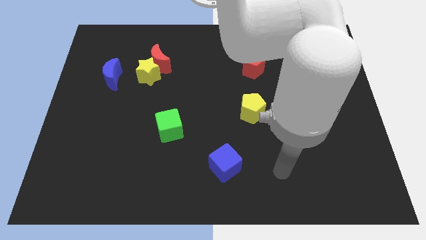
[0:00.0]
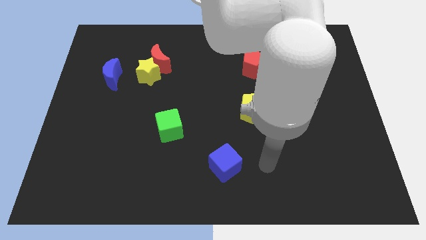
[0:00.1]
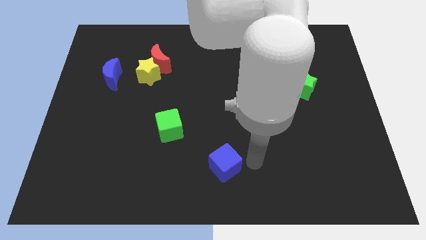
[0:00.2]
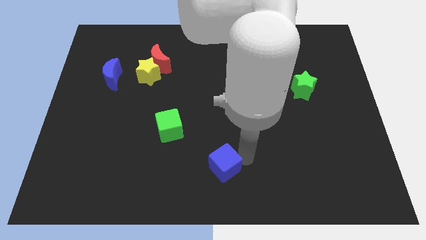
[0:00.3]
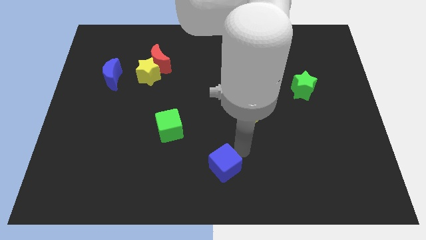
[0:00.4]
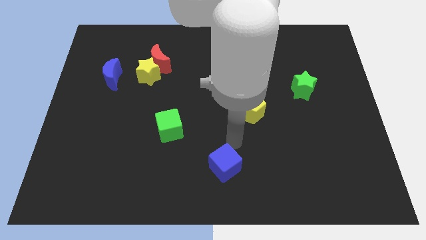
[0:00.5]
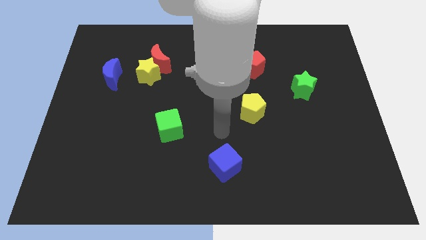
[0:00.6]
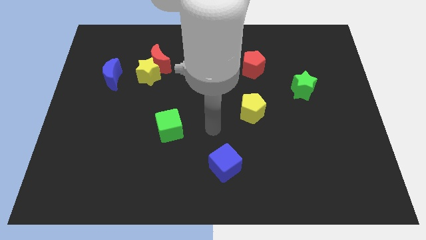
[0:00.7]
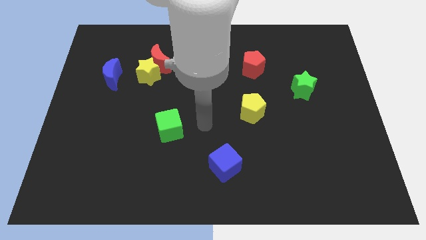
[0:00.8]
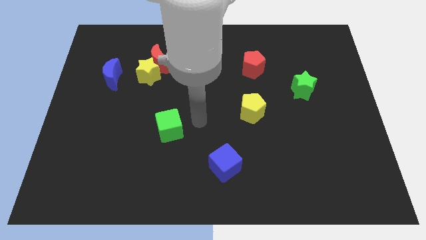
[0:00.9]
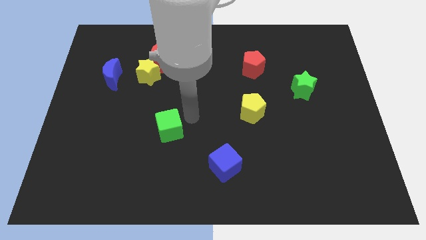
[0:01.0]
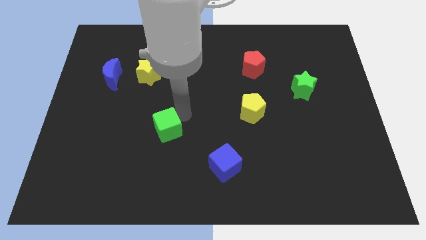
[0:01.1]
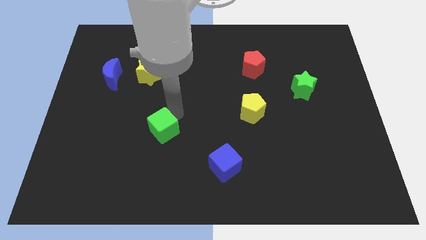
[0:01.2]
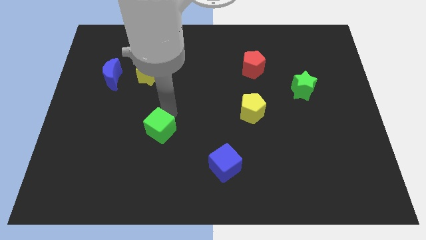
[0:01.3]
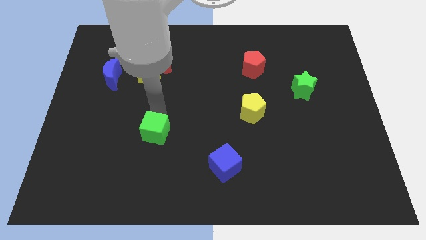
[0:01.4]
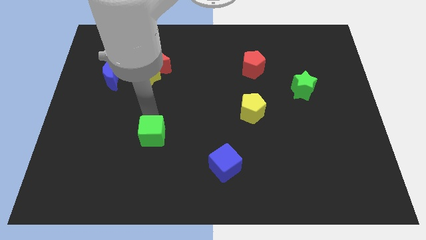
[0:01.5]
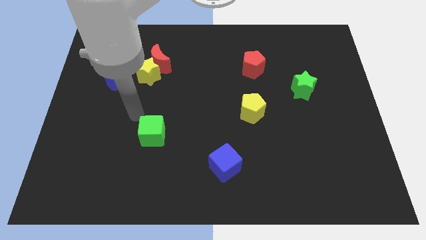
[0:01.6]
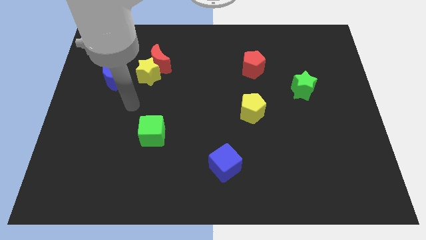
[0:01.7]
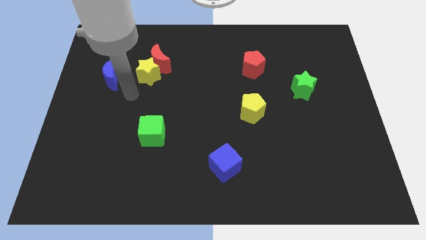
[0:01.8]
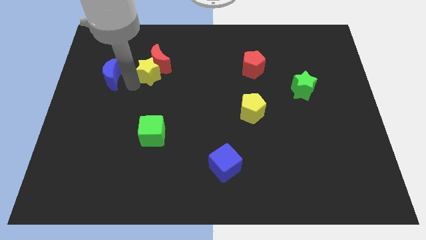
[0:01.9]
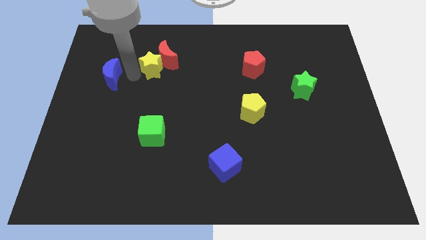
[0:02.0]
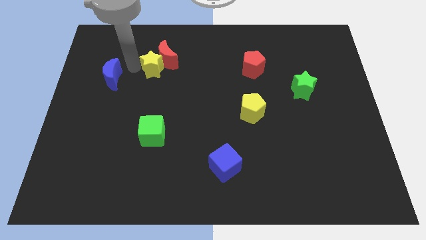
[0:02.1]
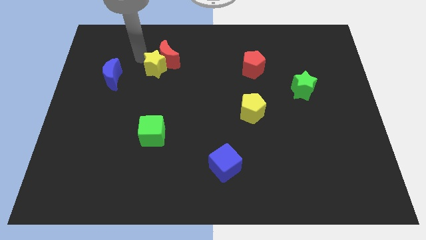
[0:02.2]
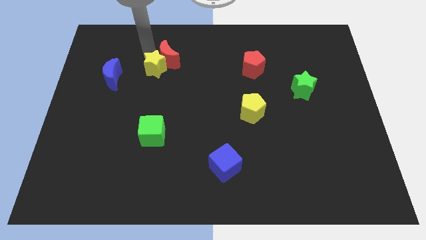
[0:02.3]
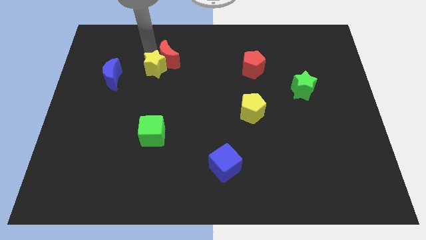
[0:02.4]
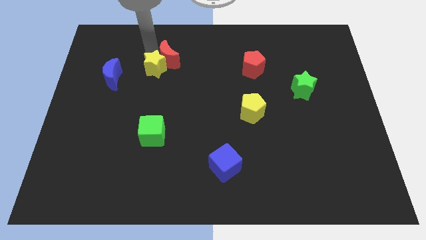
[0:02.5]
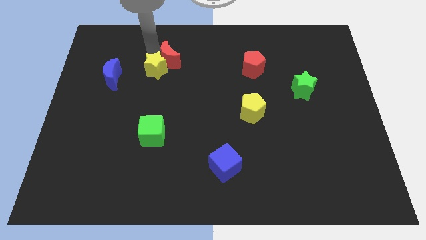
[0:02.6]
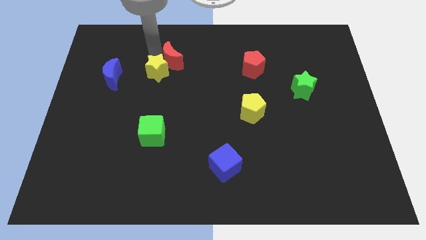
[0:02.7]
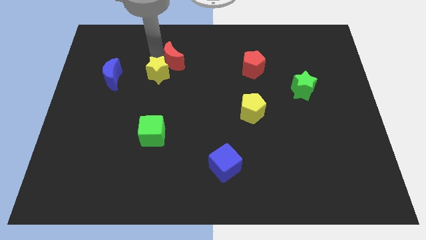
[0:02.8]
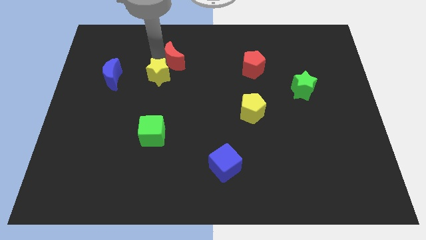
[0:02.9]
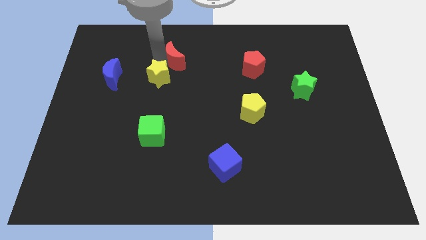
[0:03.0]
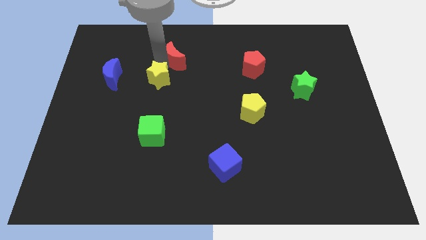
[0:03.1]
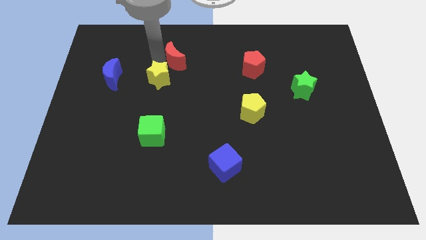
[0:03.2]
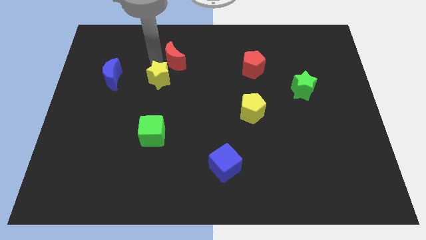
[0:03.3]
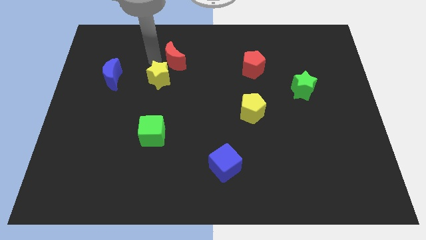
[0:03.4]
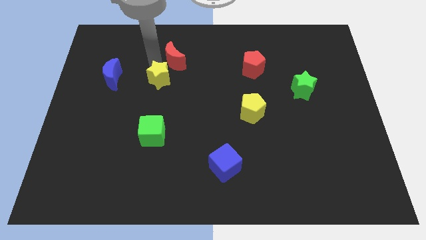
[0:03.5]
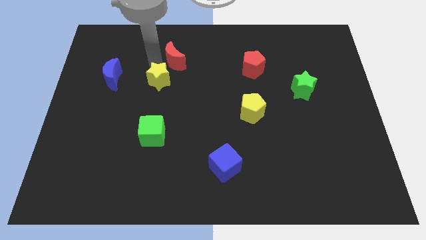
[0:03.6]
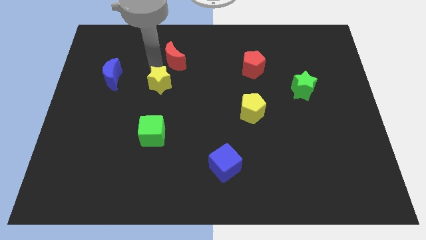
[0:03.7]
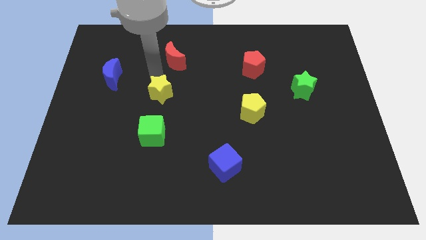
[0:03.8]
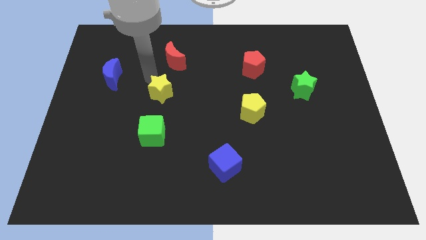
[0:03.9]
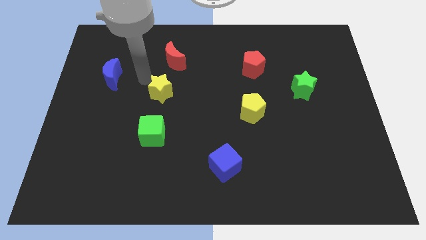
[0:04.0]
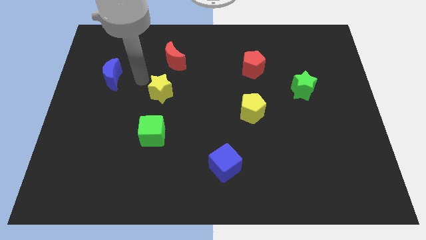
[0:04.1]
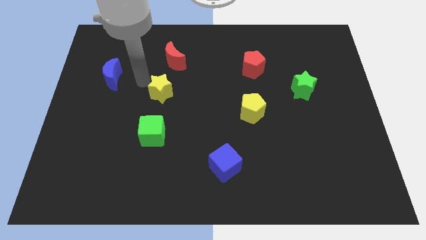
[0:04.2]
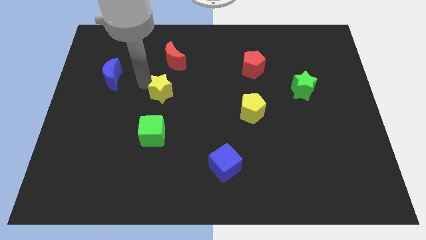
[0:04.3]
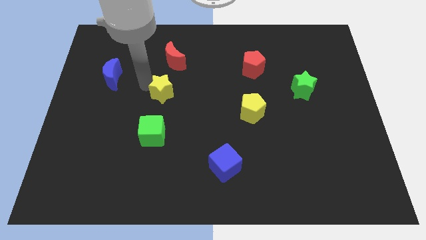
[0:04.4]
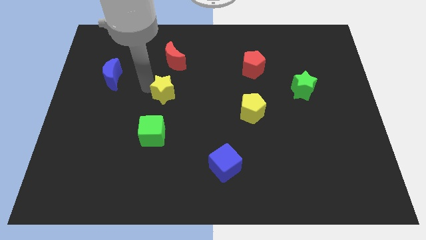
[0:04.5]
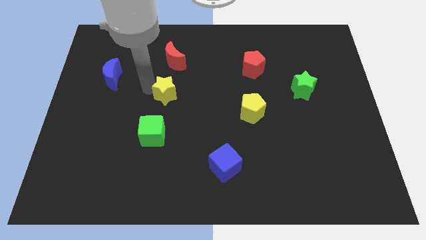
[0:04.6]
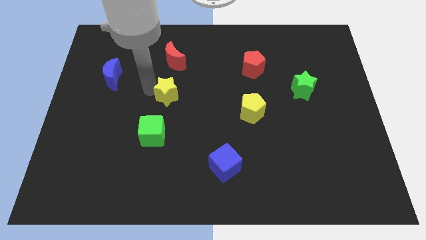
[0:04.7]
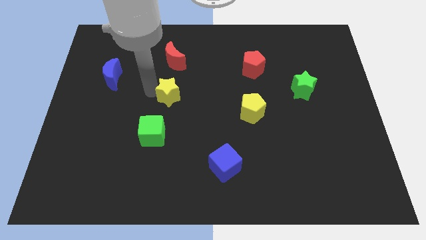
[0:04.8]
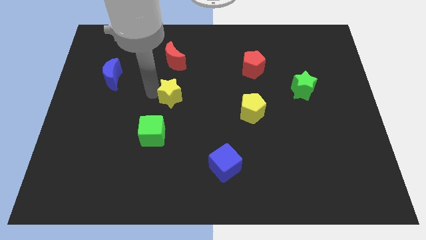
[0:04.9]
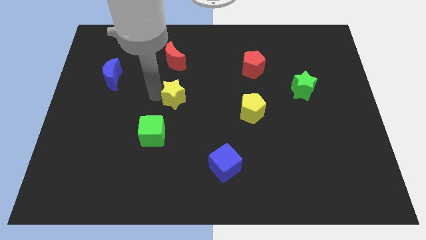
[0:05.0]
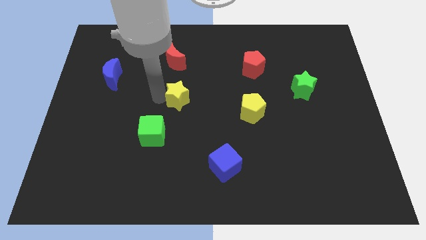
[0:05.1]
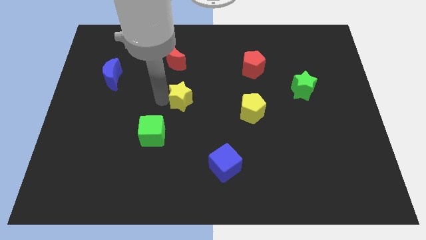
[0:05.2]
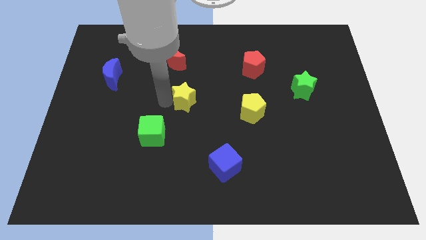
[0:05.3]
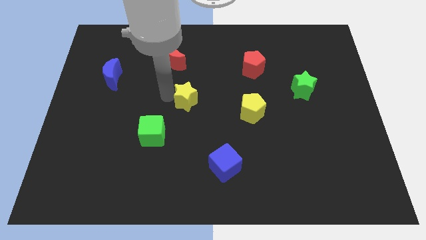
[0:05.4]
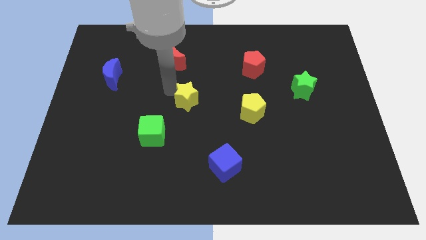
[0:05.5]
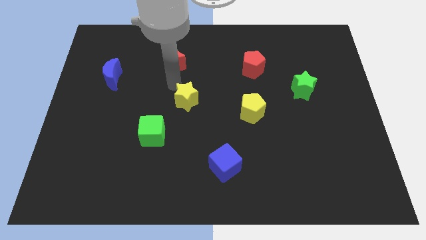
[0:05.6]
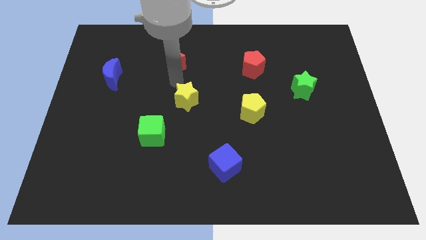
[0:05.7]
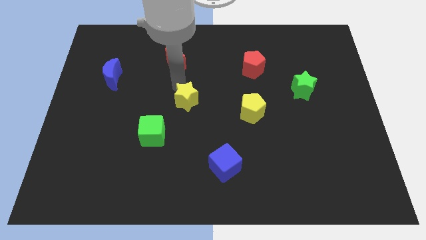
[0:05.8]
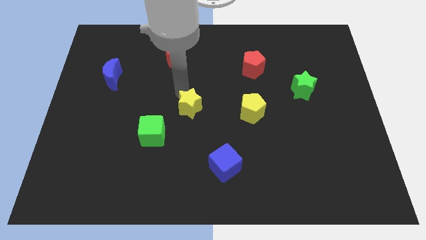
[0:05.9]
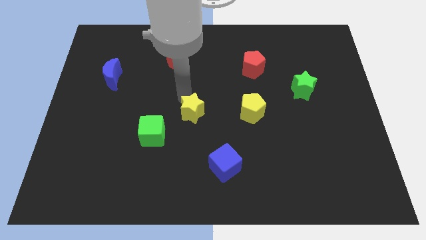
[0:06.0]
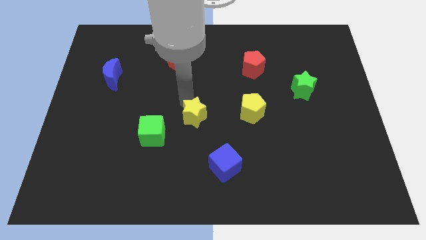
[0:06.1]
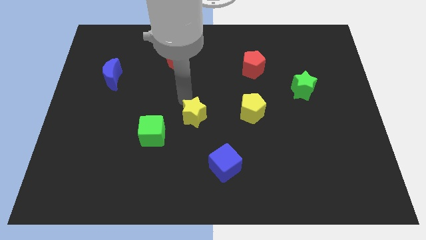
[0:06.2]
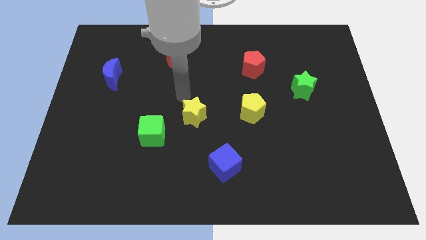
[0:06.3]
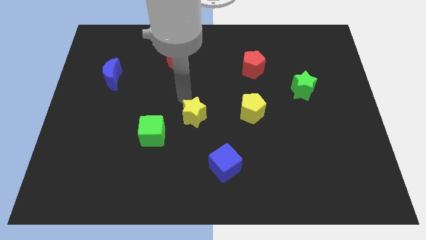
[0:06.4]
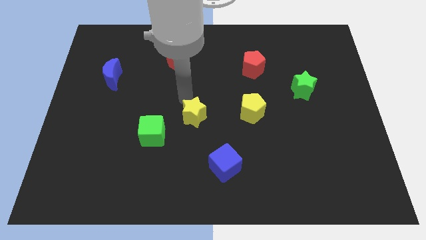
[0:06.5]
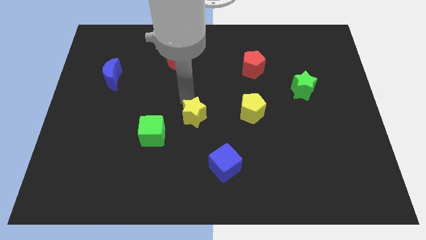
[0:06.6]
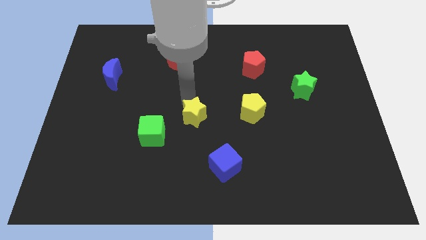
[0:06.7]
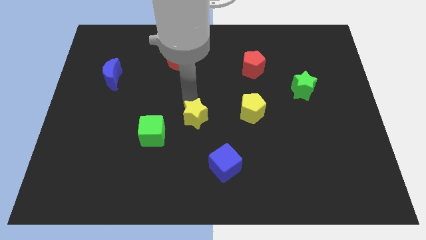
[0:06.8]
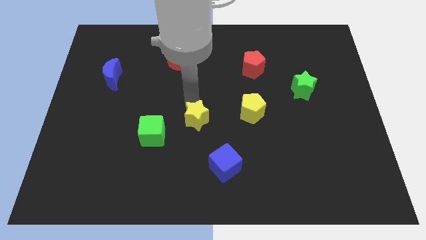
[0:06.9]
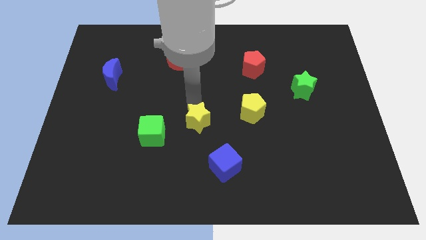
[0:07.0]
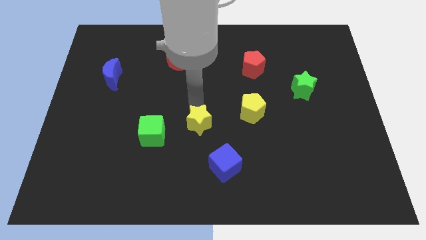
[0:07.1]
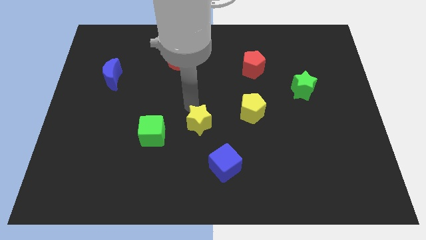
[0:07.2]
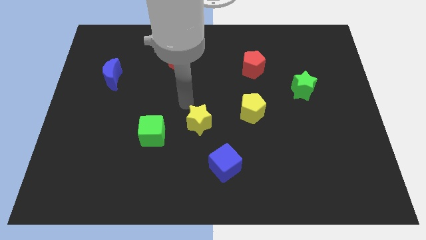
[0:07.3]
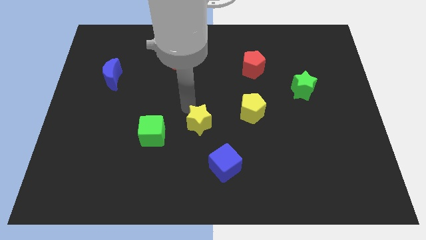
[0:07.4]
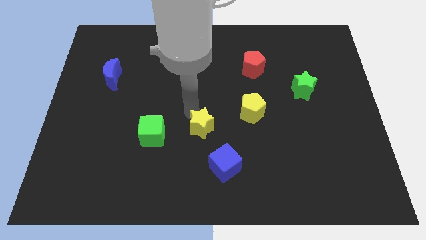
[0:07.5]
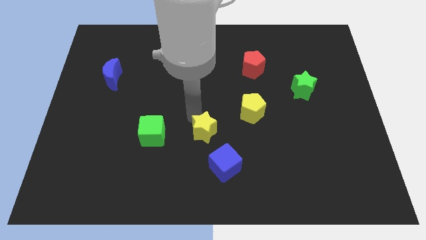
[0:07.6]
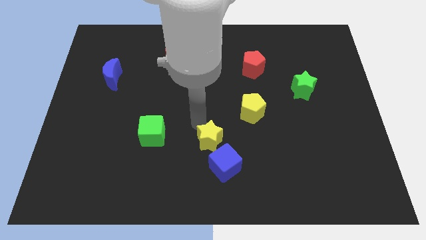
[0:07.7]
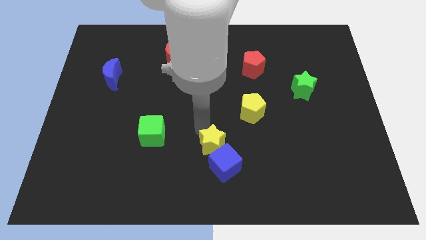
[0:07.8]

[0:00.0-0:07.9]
slide the yellow star close to the blue cube
